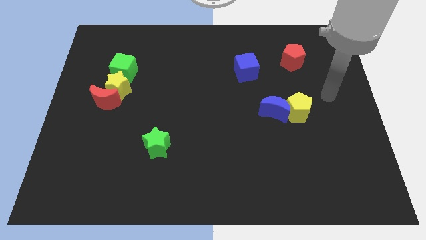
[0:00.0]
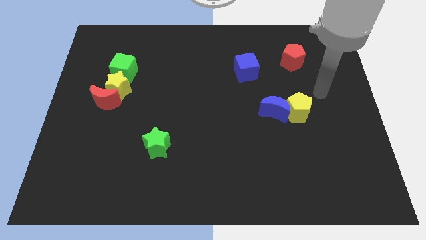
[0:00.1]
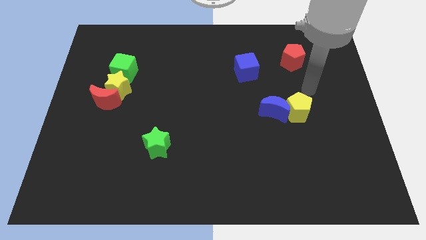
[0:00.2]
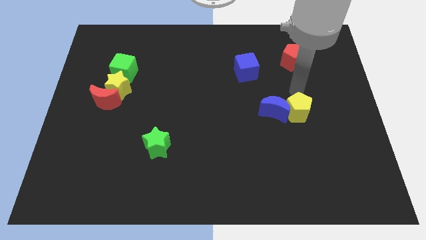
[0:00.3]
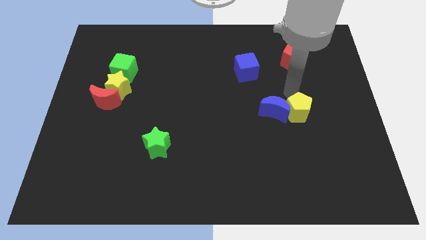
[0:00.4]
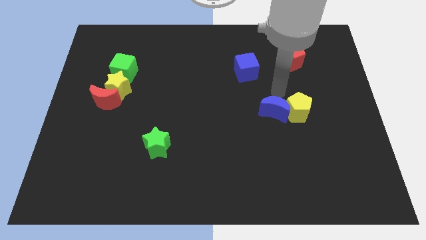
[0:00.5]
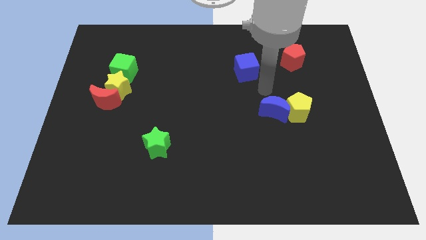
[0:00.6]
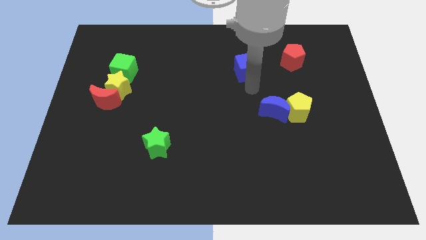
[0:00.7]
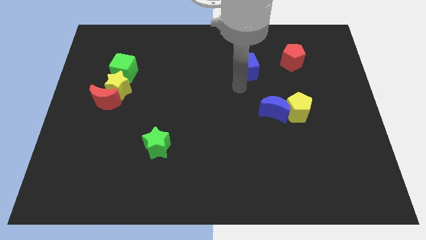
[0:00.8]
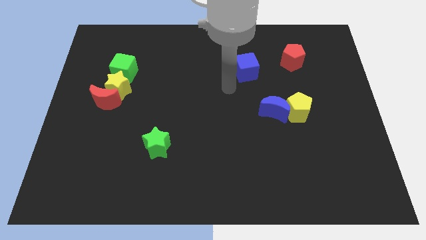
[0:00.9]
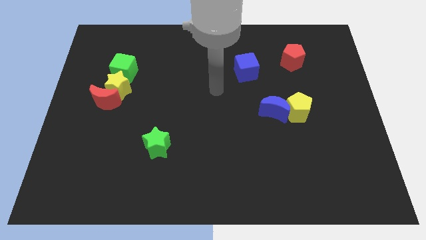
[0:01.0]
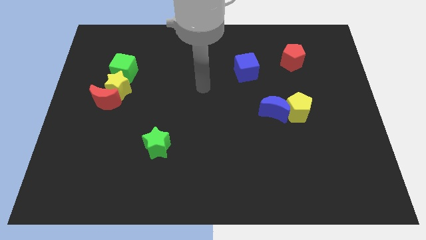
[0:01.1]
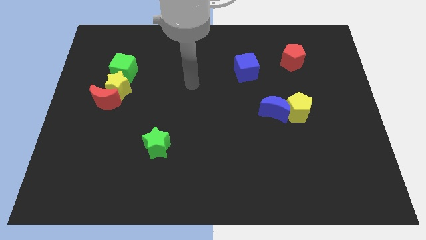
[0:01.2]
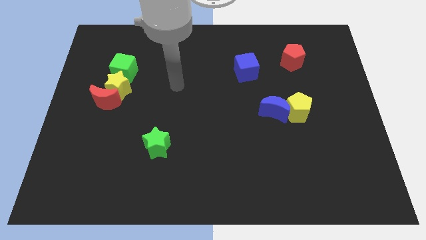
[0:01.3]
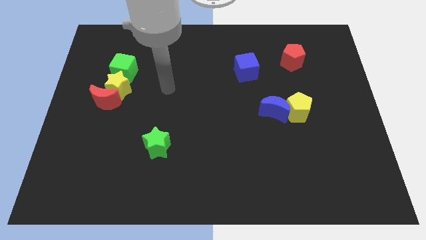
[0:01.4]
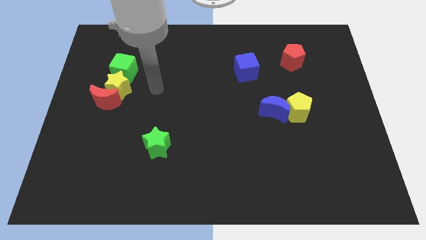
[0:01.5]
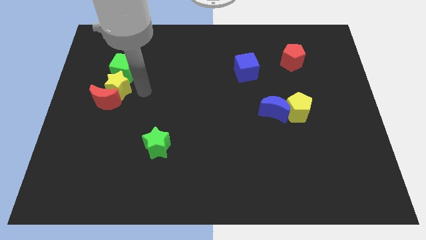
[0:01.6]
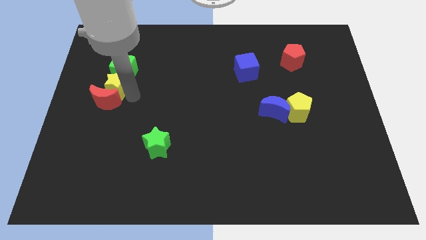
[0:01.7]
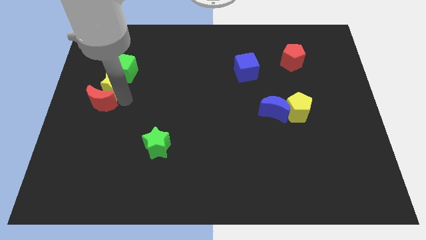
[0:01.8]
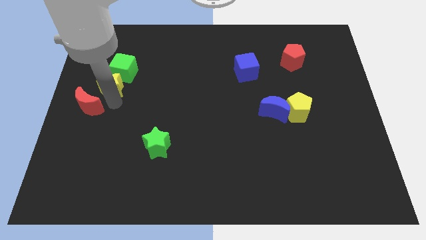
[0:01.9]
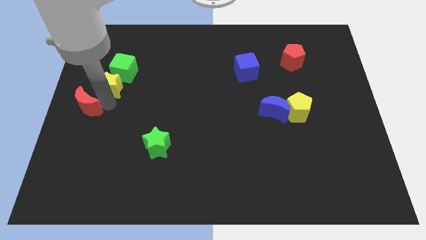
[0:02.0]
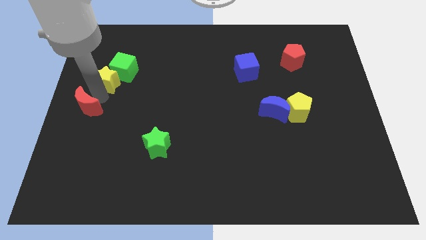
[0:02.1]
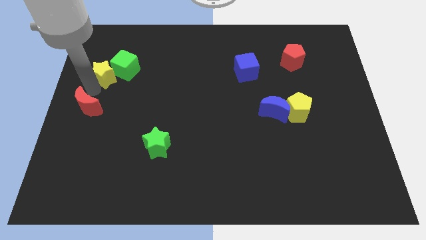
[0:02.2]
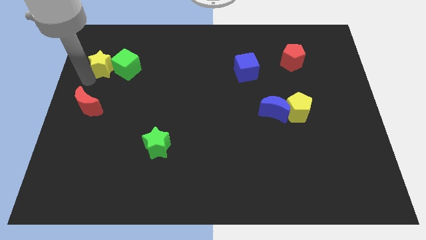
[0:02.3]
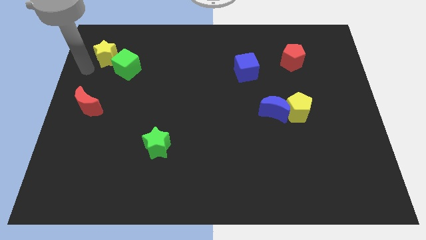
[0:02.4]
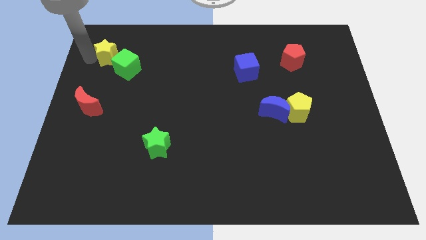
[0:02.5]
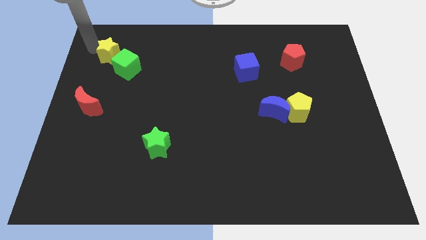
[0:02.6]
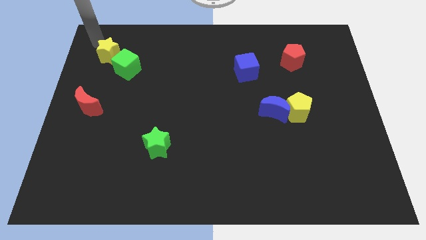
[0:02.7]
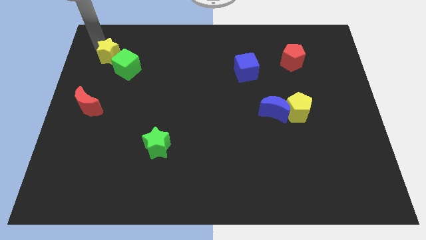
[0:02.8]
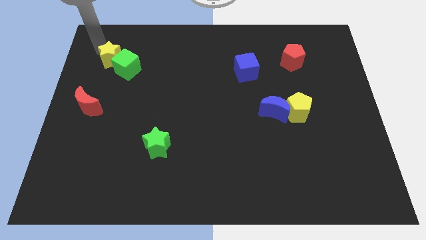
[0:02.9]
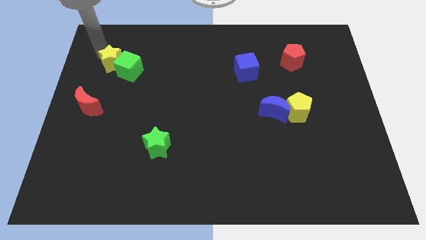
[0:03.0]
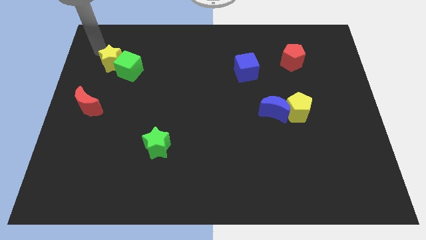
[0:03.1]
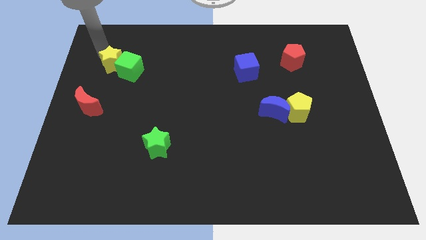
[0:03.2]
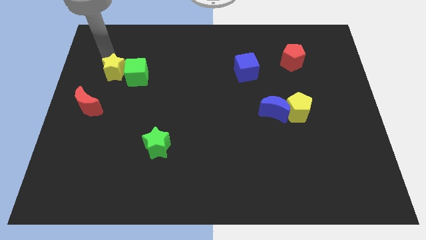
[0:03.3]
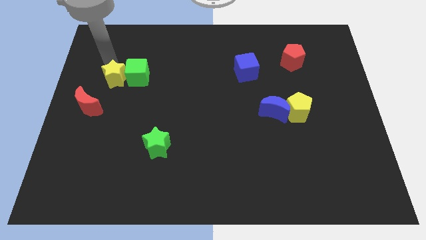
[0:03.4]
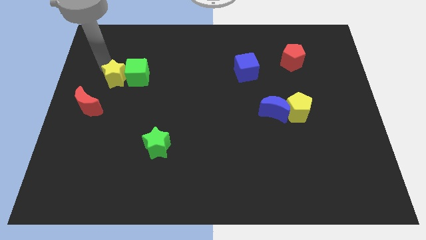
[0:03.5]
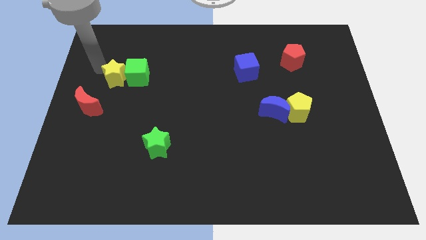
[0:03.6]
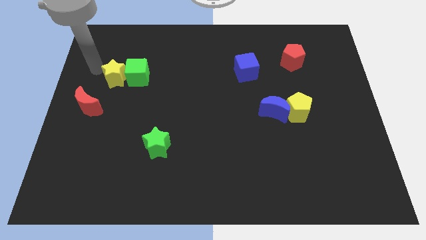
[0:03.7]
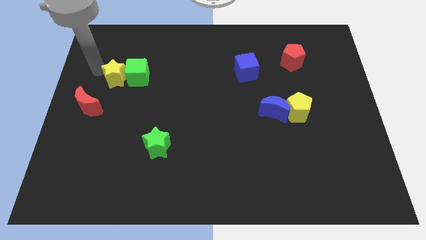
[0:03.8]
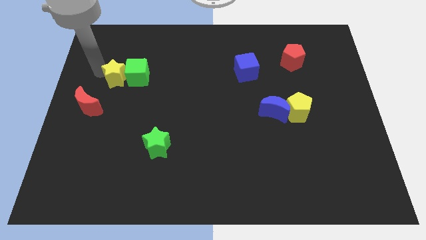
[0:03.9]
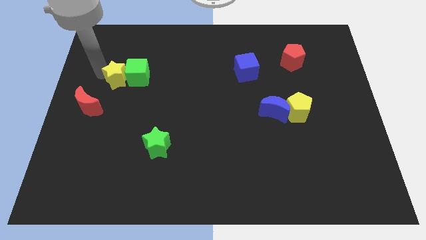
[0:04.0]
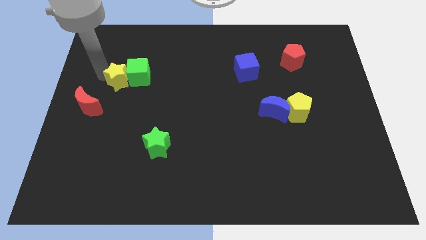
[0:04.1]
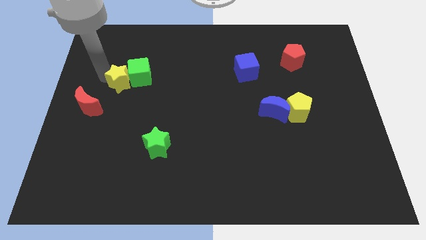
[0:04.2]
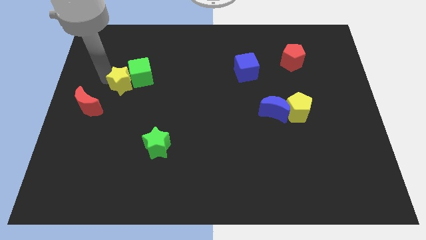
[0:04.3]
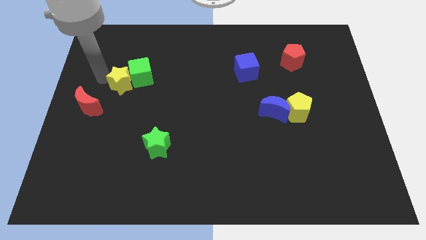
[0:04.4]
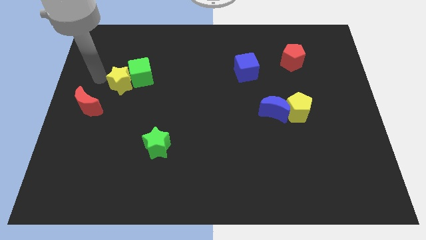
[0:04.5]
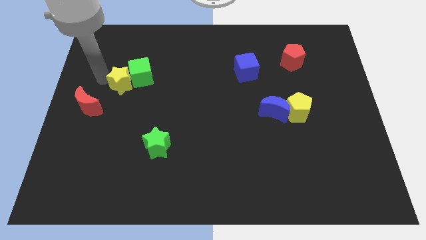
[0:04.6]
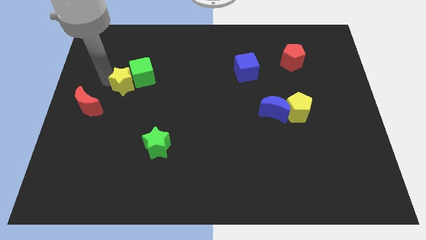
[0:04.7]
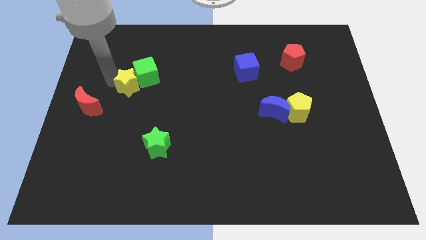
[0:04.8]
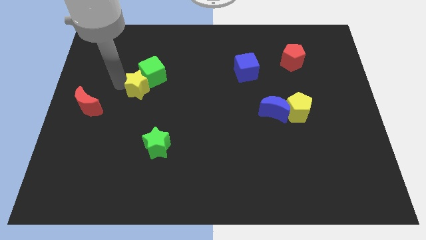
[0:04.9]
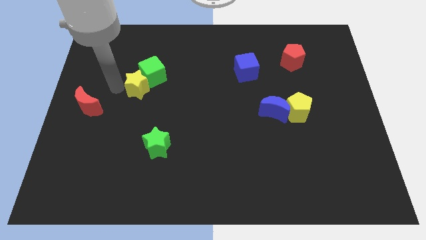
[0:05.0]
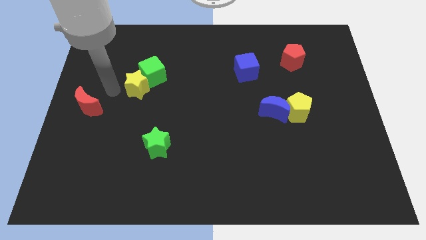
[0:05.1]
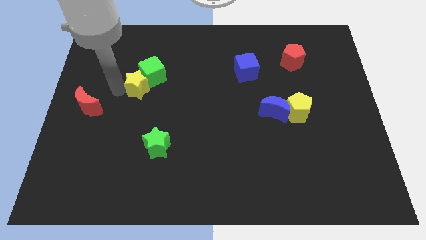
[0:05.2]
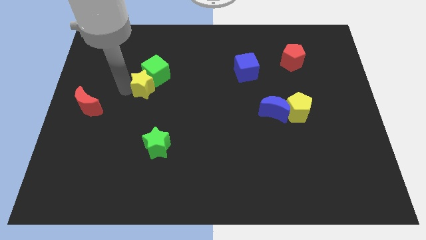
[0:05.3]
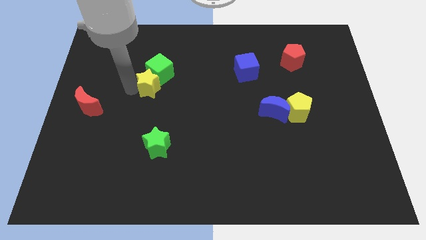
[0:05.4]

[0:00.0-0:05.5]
push the yellow star a bit to the right

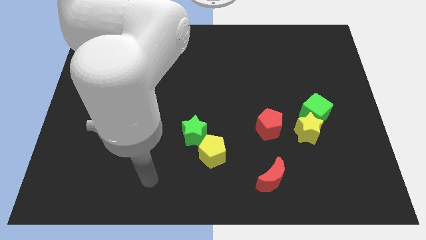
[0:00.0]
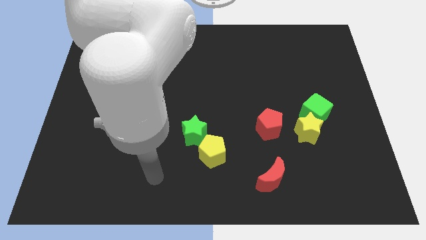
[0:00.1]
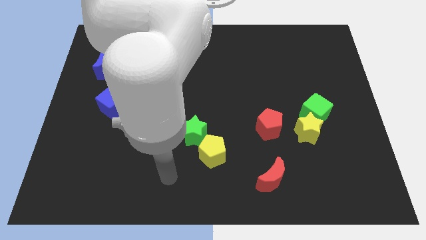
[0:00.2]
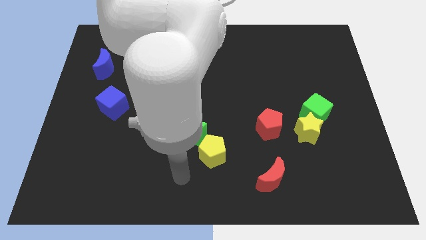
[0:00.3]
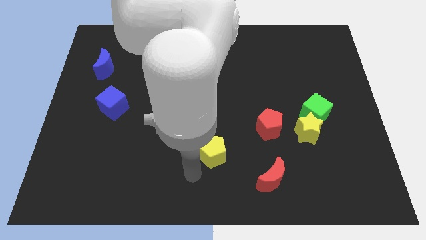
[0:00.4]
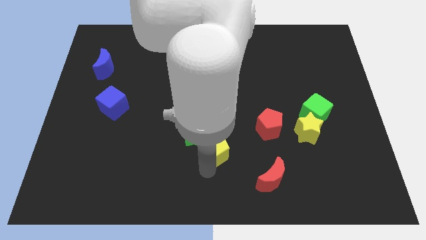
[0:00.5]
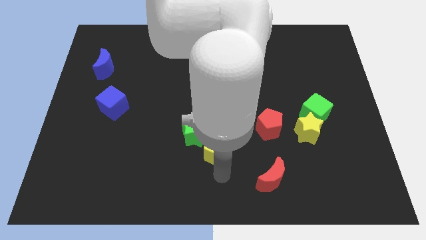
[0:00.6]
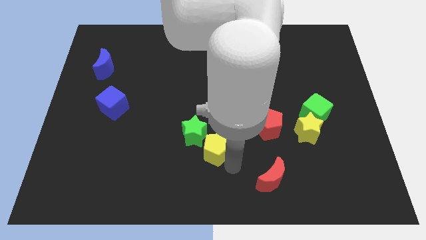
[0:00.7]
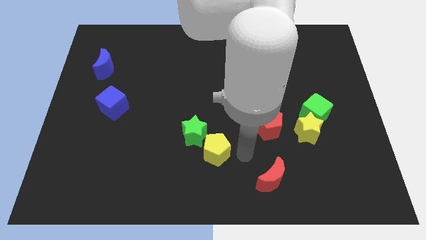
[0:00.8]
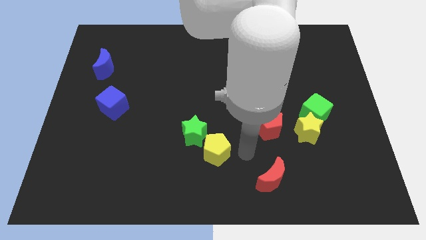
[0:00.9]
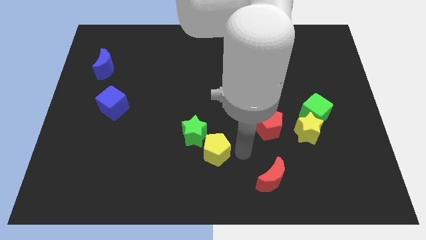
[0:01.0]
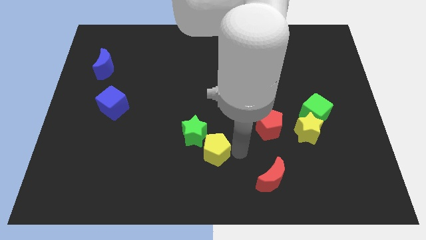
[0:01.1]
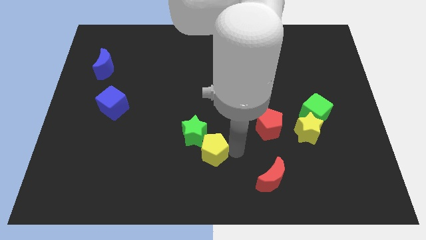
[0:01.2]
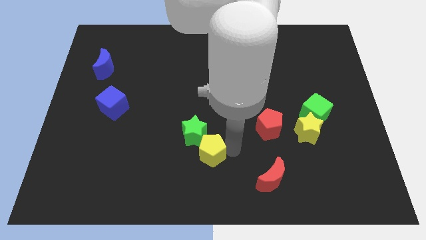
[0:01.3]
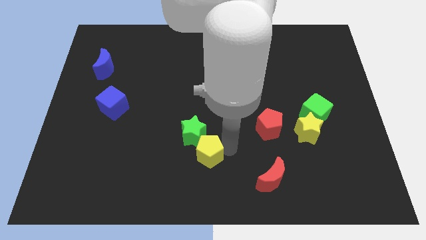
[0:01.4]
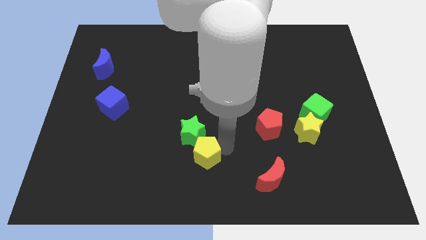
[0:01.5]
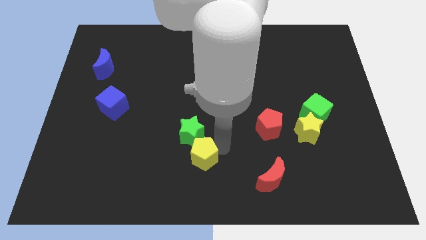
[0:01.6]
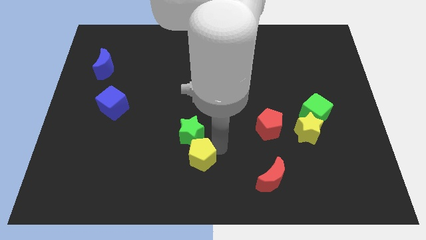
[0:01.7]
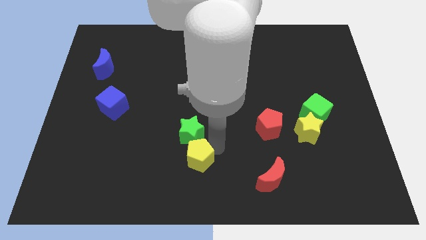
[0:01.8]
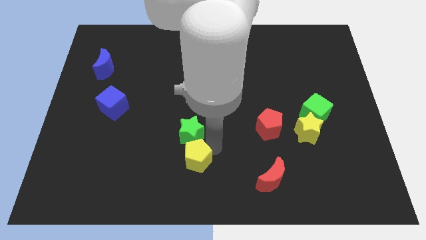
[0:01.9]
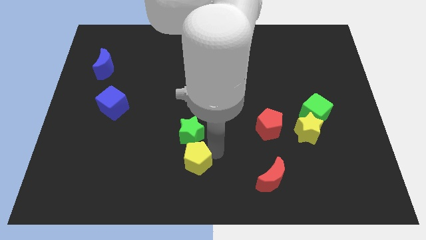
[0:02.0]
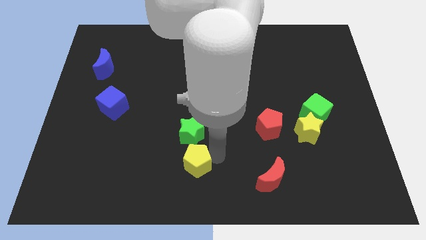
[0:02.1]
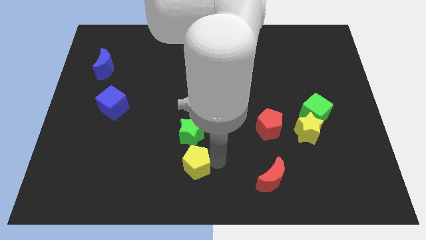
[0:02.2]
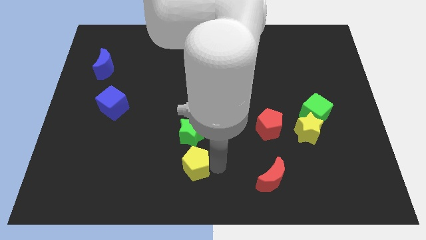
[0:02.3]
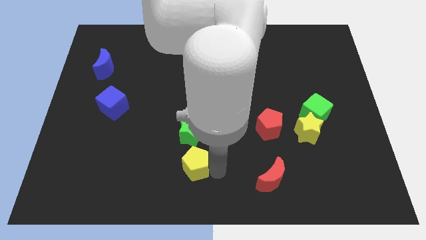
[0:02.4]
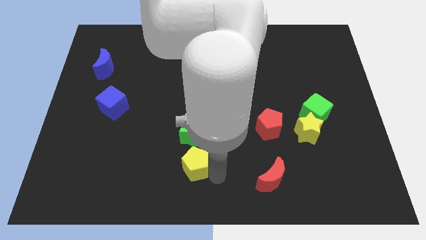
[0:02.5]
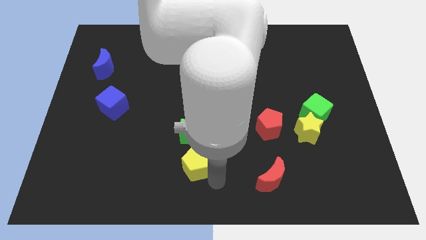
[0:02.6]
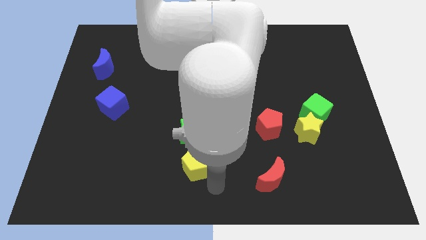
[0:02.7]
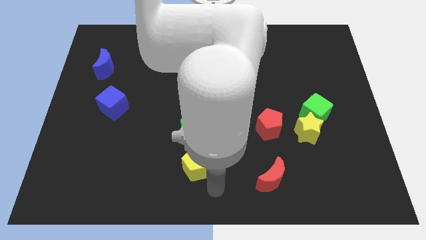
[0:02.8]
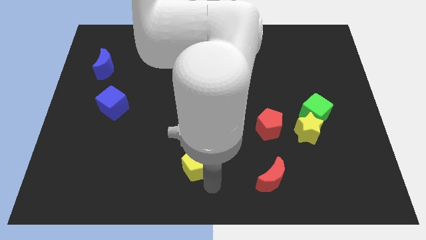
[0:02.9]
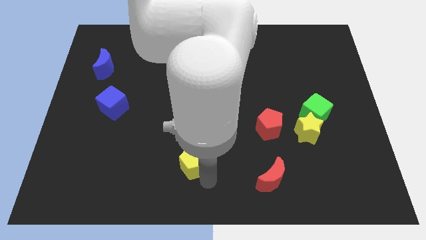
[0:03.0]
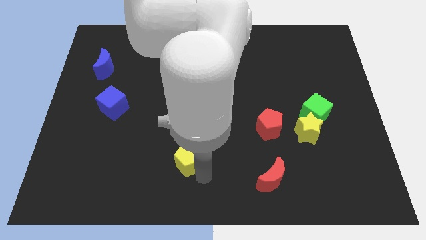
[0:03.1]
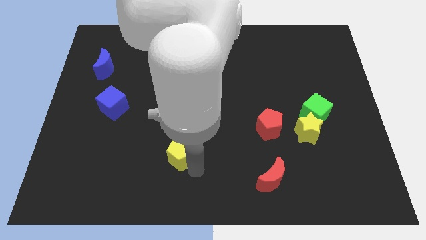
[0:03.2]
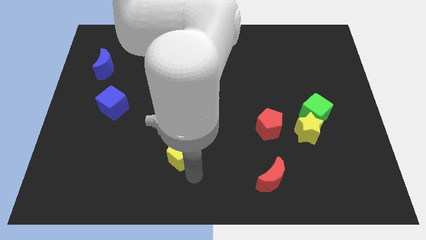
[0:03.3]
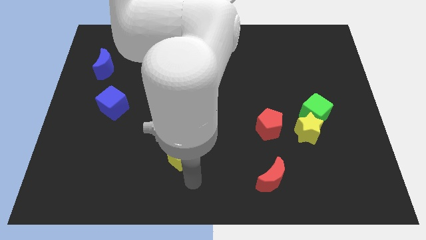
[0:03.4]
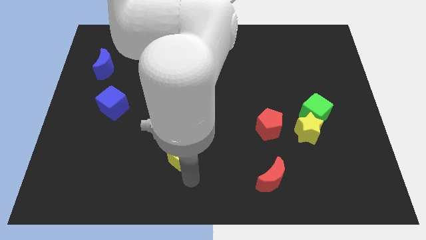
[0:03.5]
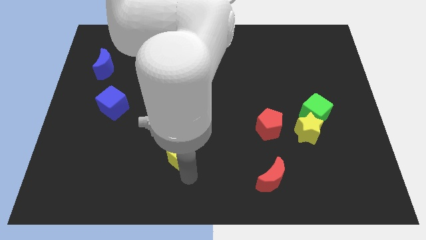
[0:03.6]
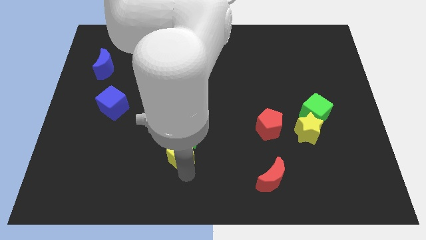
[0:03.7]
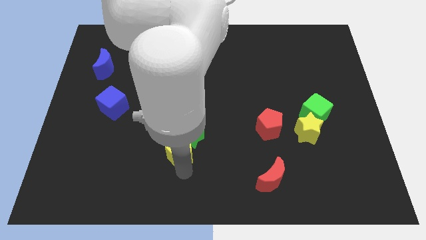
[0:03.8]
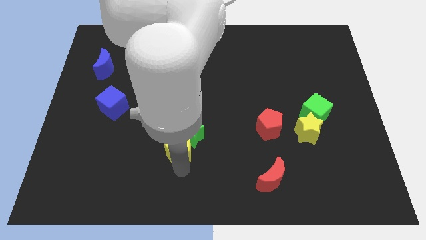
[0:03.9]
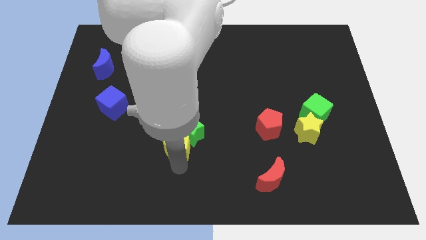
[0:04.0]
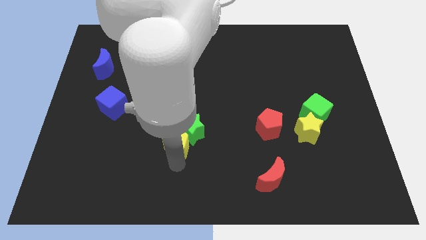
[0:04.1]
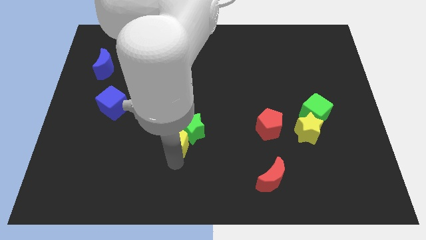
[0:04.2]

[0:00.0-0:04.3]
slide the yellow pentagon a bit upwards and then to the left
